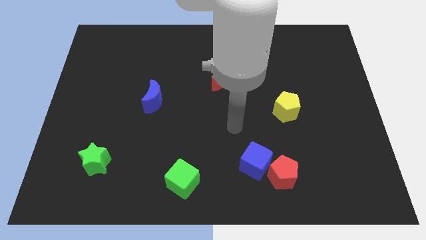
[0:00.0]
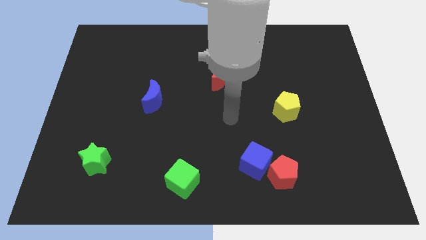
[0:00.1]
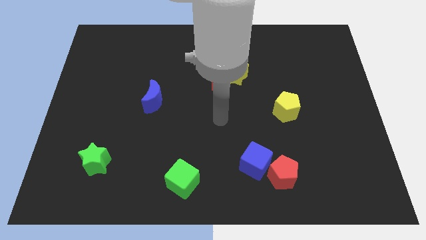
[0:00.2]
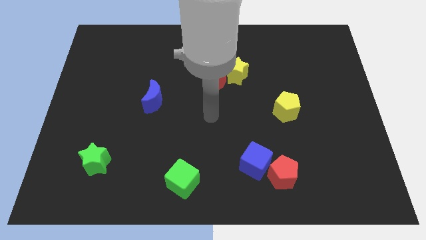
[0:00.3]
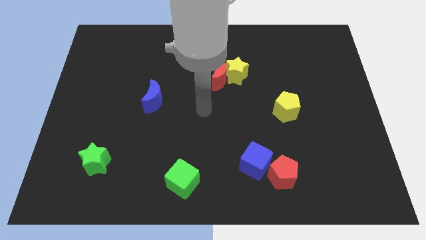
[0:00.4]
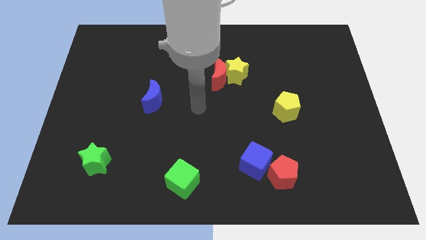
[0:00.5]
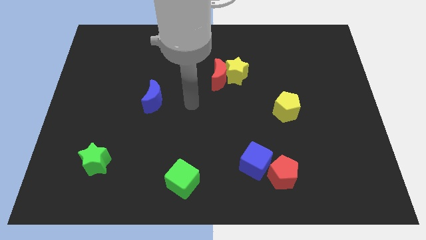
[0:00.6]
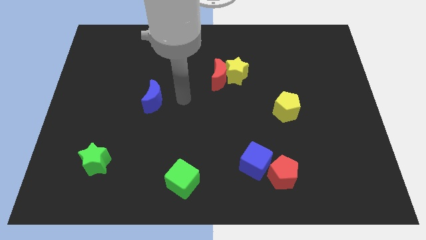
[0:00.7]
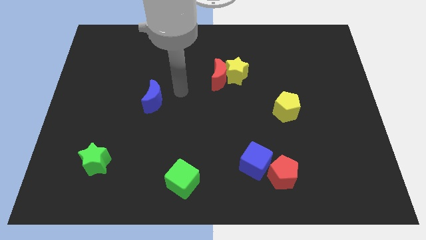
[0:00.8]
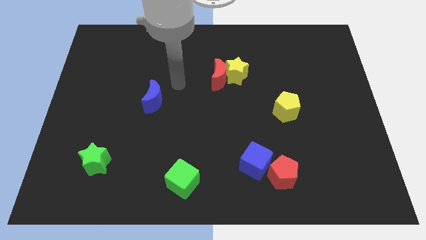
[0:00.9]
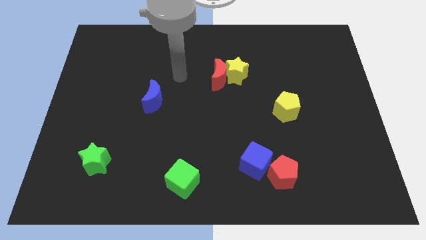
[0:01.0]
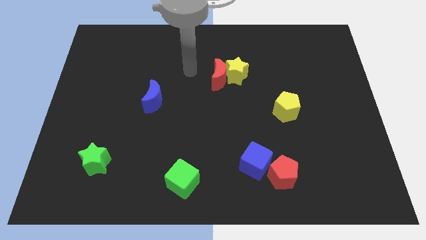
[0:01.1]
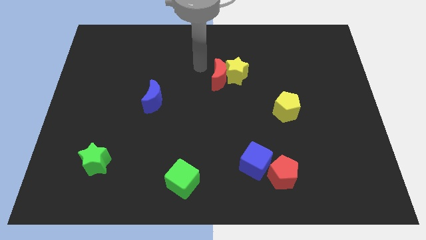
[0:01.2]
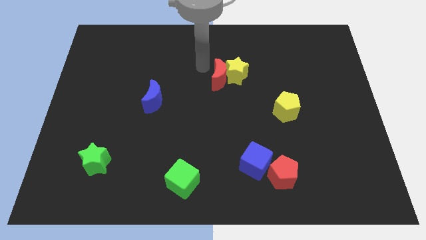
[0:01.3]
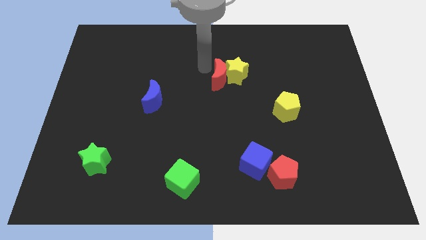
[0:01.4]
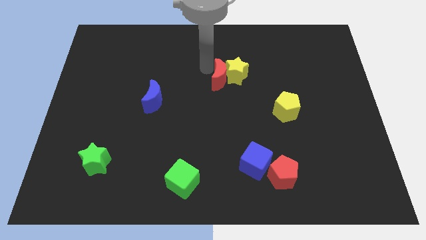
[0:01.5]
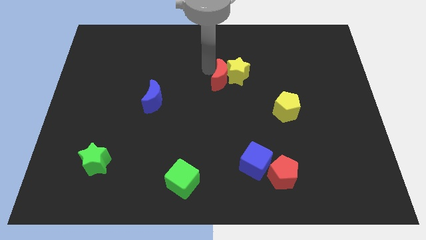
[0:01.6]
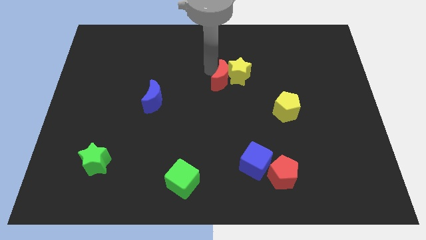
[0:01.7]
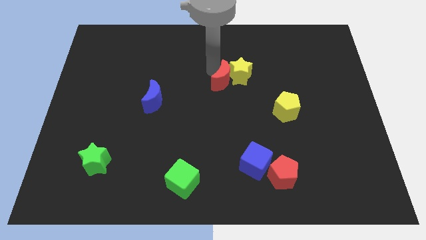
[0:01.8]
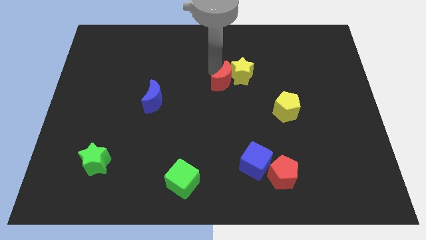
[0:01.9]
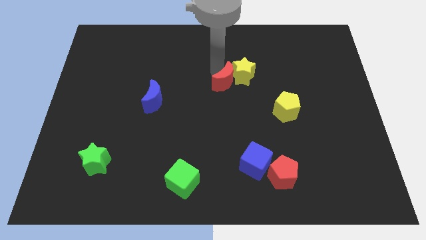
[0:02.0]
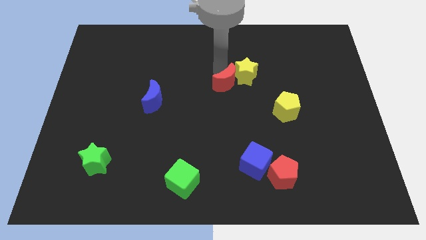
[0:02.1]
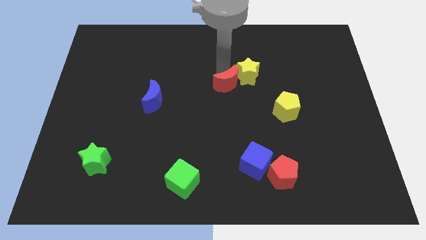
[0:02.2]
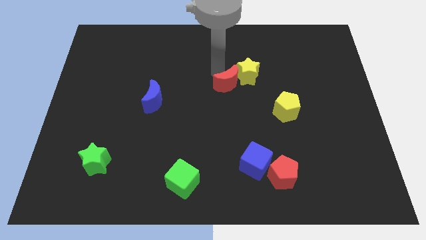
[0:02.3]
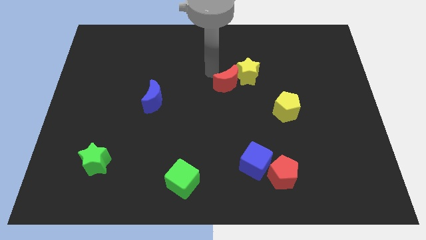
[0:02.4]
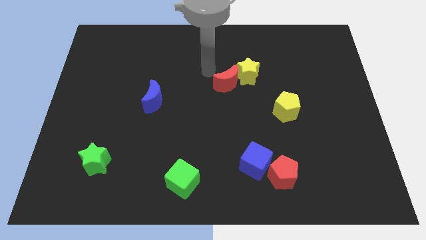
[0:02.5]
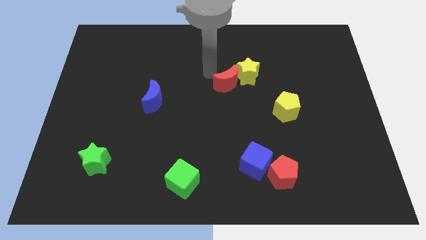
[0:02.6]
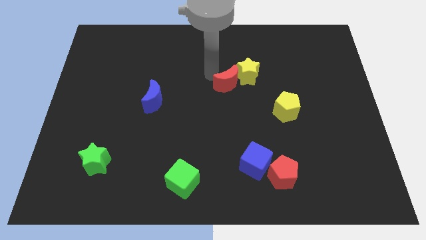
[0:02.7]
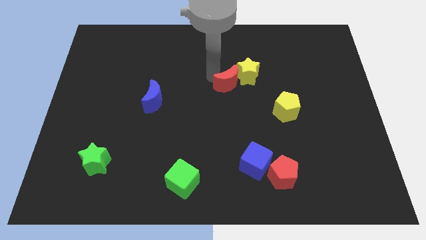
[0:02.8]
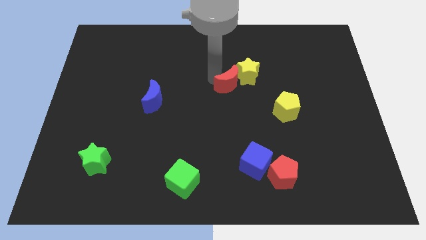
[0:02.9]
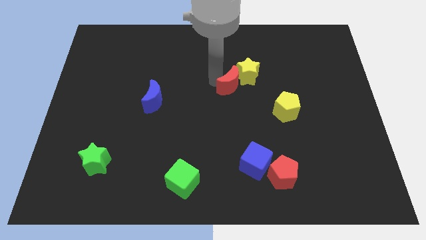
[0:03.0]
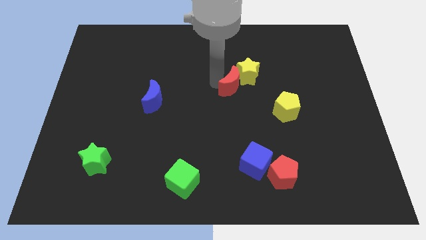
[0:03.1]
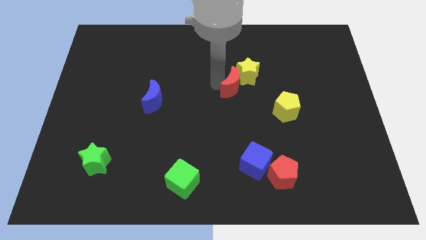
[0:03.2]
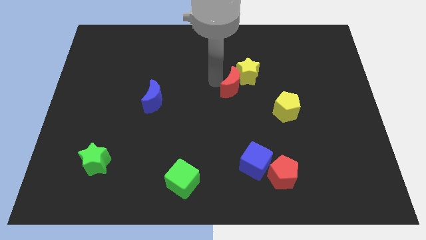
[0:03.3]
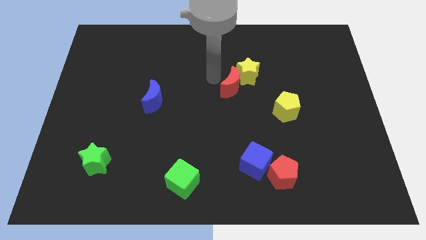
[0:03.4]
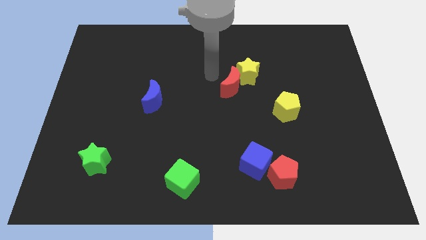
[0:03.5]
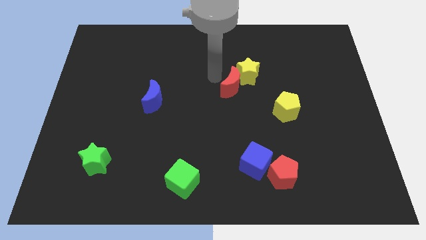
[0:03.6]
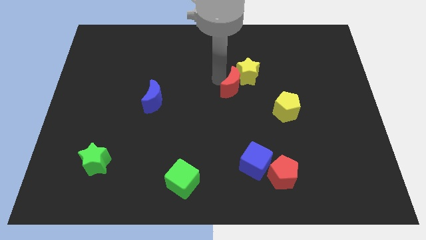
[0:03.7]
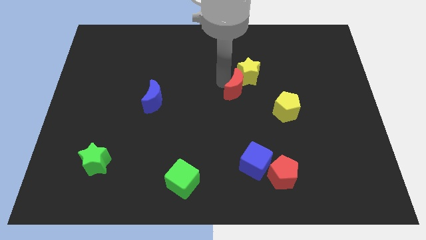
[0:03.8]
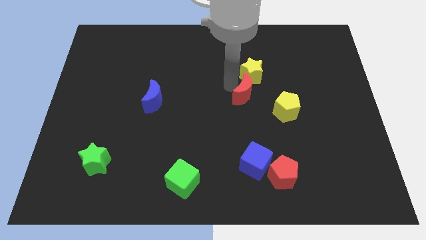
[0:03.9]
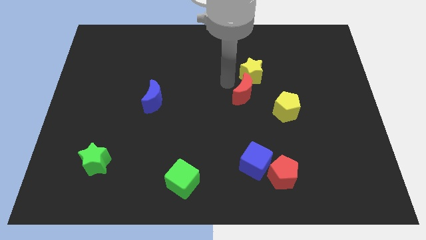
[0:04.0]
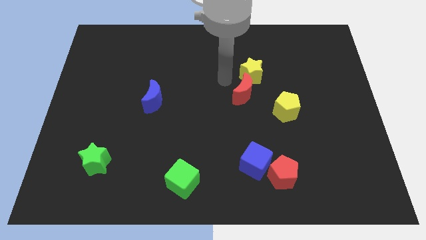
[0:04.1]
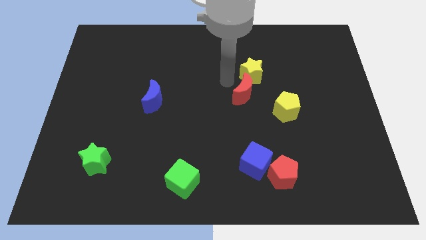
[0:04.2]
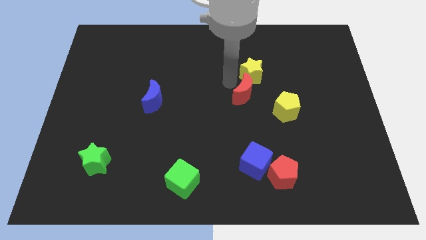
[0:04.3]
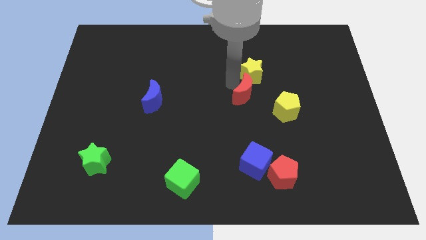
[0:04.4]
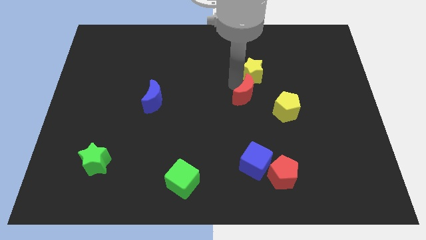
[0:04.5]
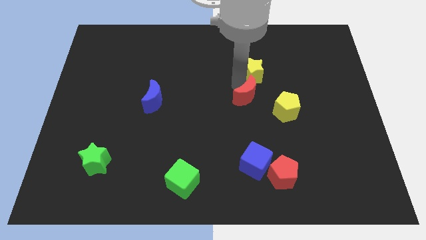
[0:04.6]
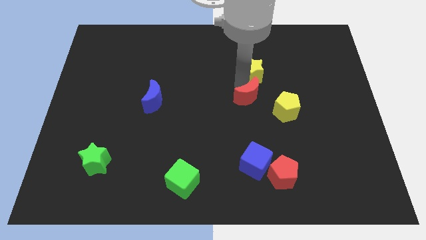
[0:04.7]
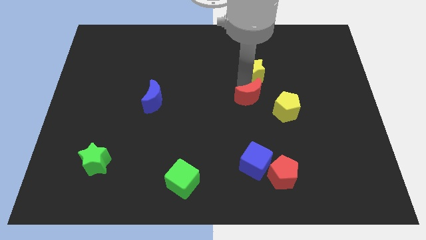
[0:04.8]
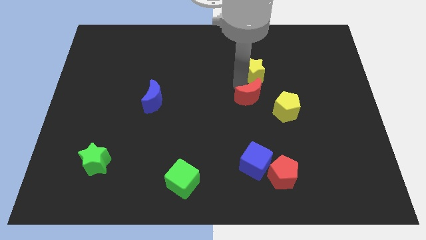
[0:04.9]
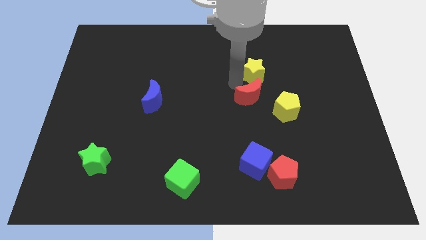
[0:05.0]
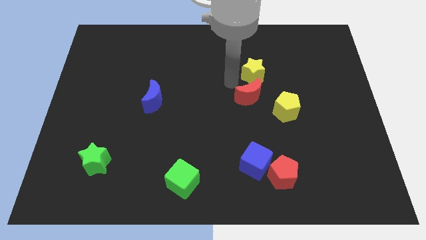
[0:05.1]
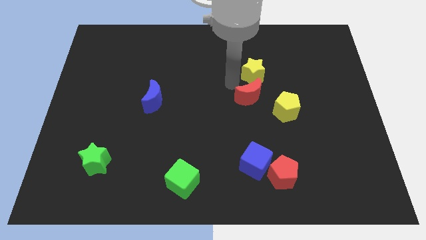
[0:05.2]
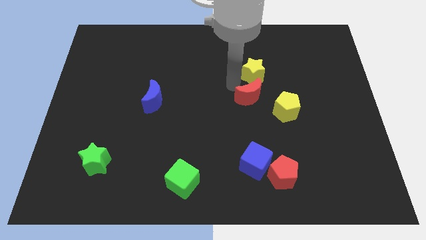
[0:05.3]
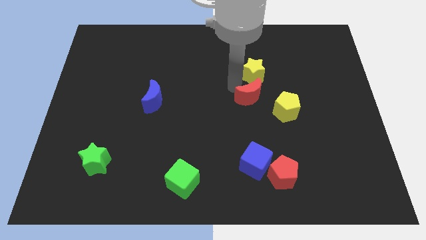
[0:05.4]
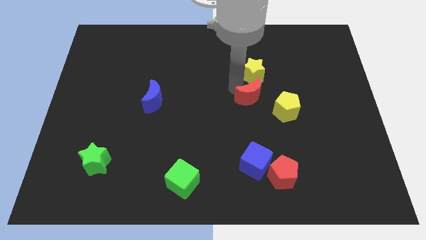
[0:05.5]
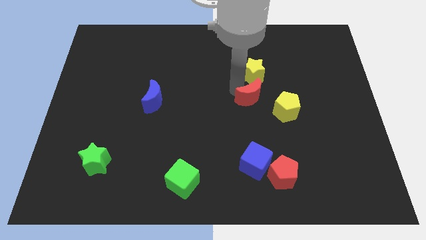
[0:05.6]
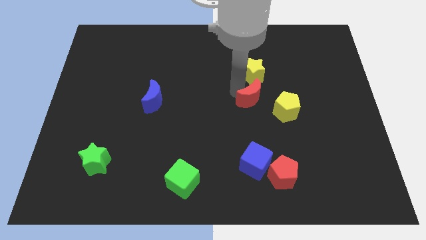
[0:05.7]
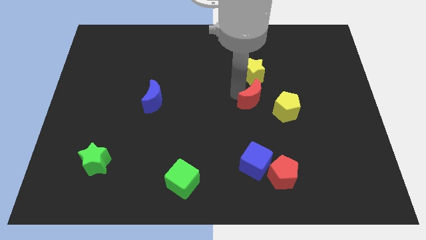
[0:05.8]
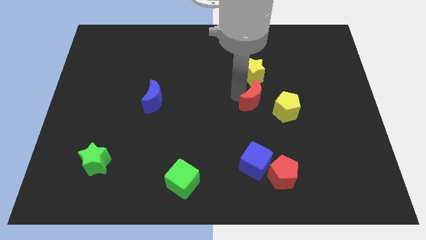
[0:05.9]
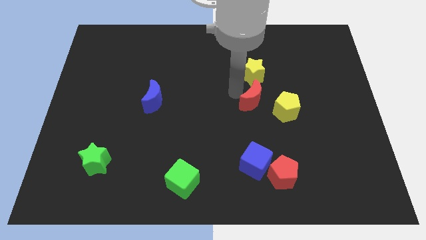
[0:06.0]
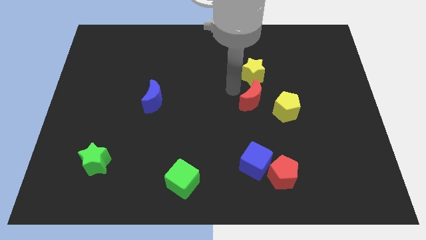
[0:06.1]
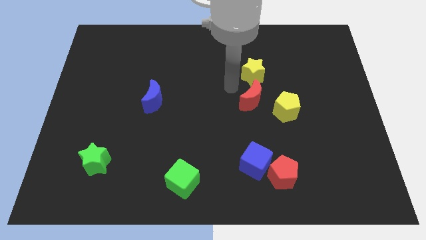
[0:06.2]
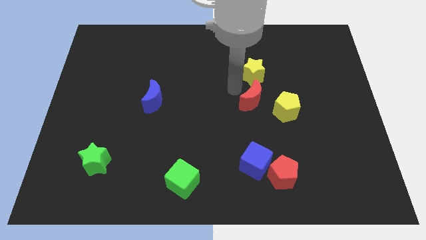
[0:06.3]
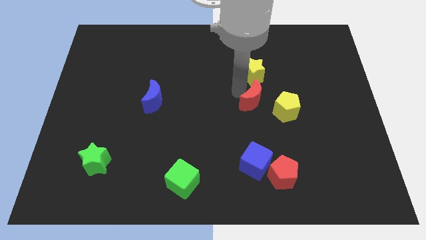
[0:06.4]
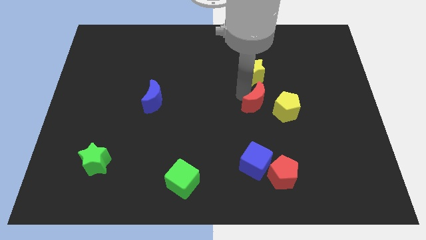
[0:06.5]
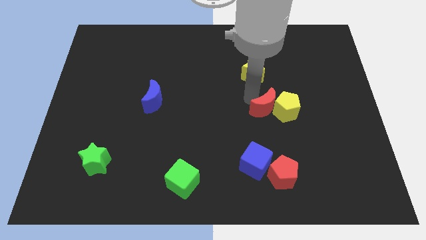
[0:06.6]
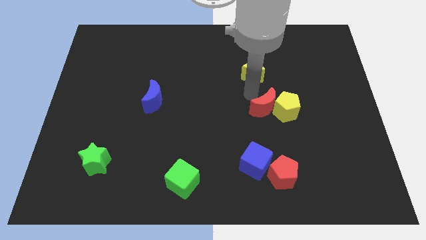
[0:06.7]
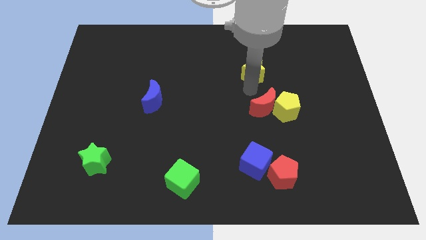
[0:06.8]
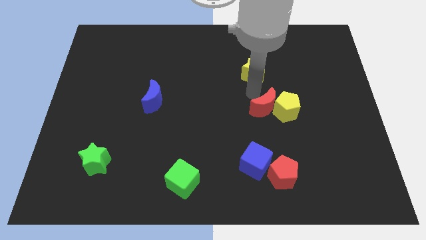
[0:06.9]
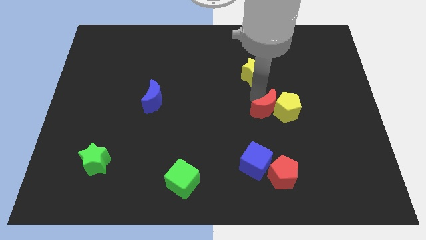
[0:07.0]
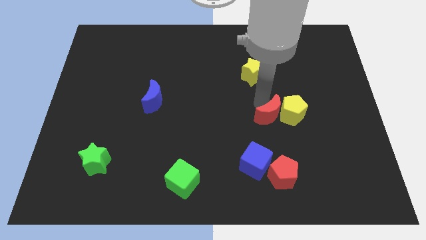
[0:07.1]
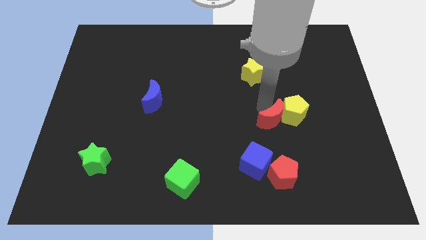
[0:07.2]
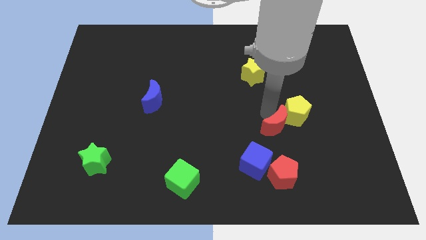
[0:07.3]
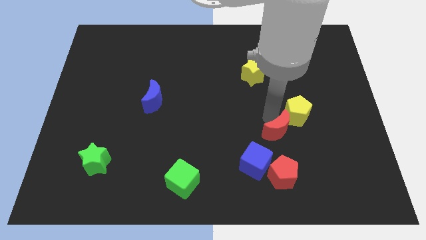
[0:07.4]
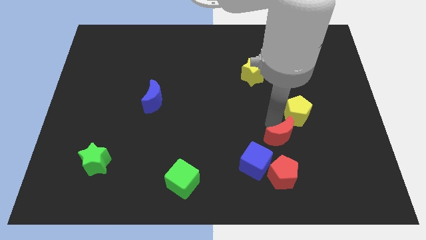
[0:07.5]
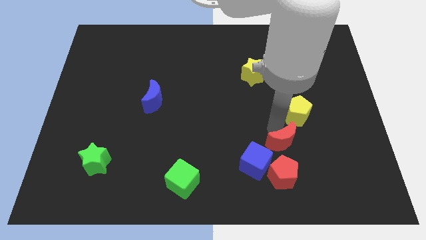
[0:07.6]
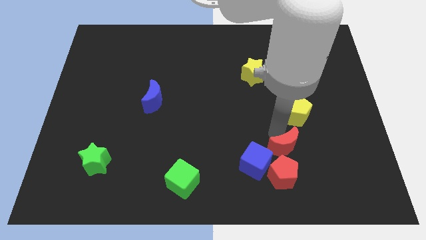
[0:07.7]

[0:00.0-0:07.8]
move the red moon just right of the blue cube
